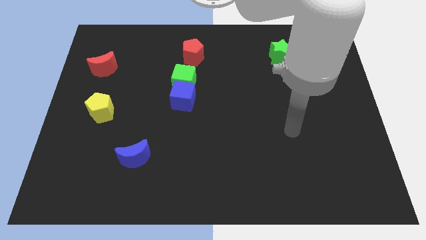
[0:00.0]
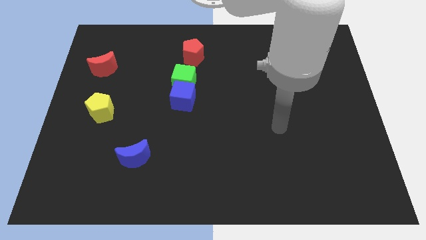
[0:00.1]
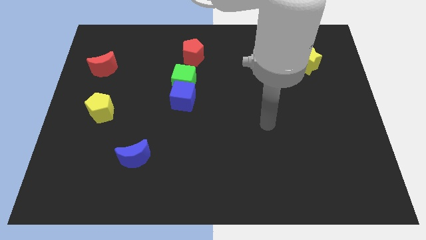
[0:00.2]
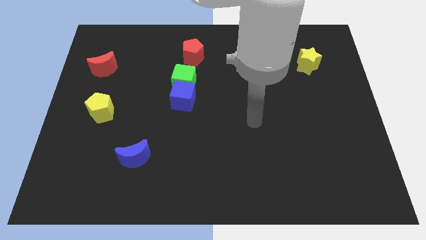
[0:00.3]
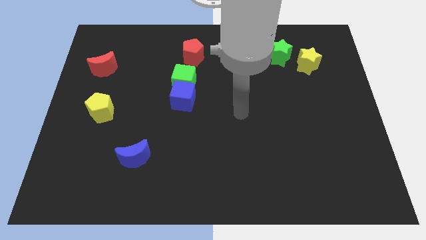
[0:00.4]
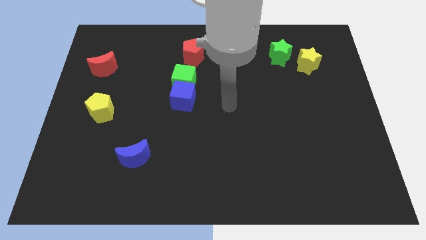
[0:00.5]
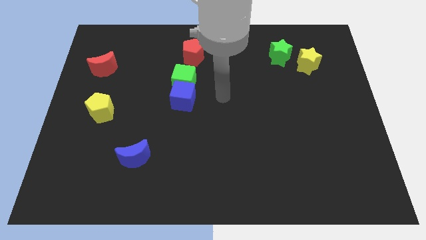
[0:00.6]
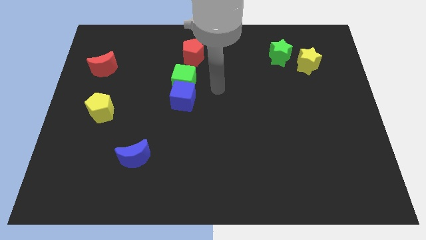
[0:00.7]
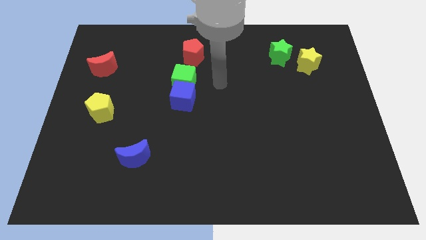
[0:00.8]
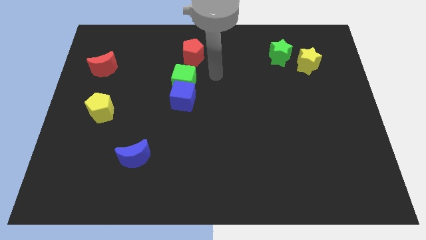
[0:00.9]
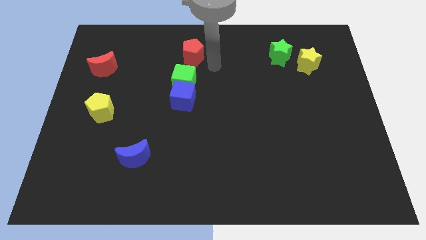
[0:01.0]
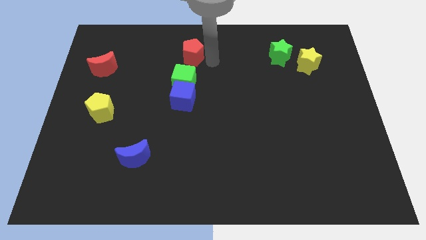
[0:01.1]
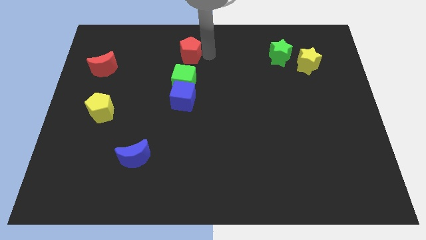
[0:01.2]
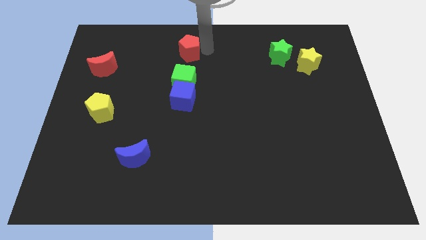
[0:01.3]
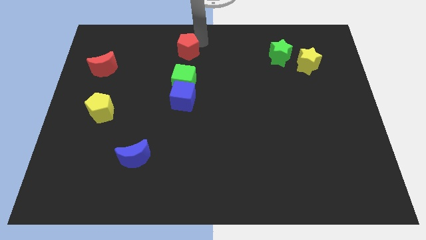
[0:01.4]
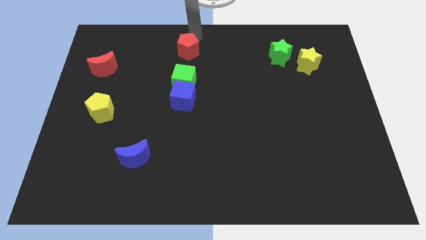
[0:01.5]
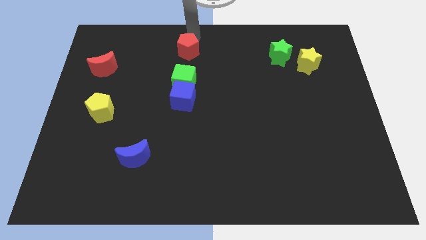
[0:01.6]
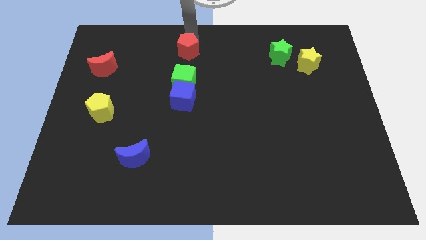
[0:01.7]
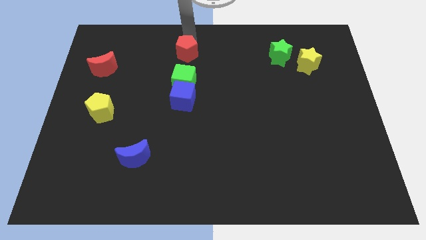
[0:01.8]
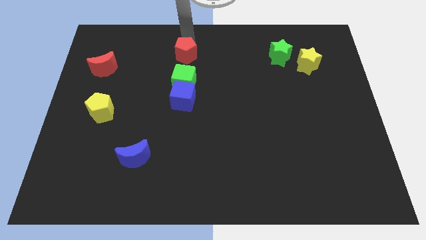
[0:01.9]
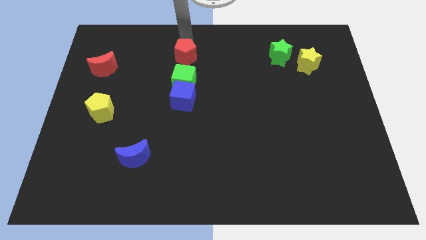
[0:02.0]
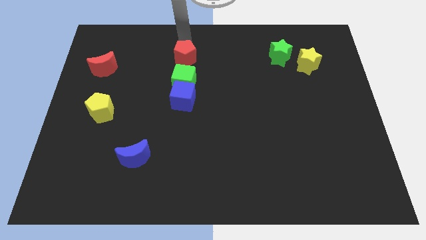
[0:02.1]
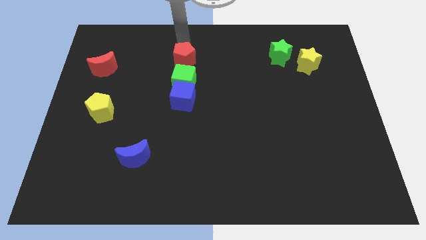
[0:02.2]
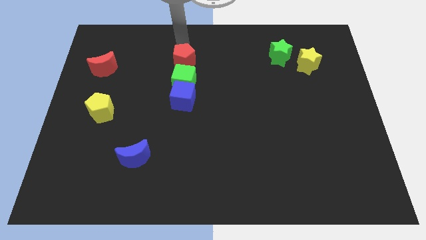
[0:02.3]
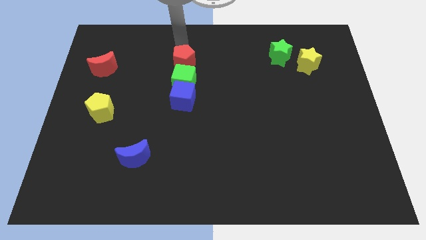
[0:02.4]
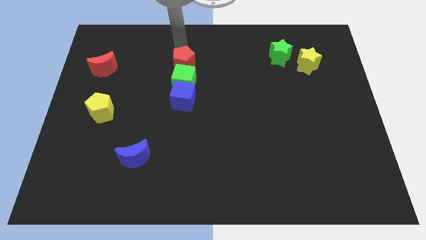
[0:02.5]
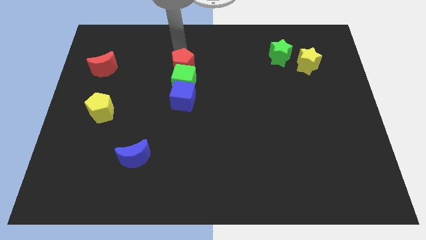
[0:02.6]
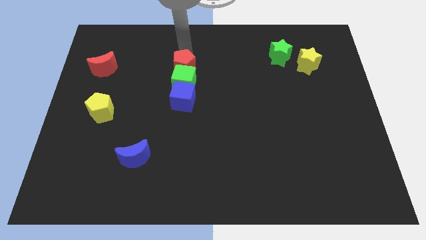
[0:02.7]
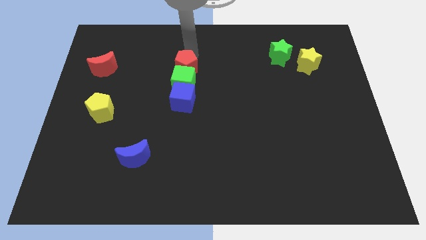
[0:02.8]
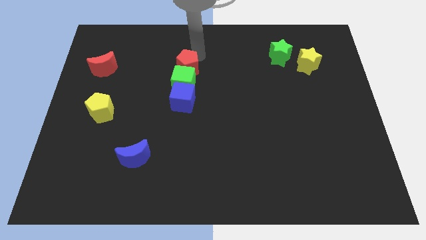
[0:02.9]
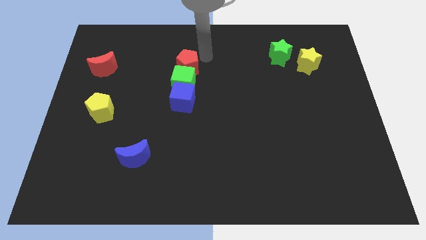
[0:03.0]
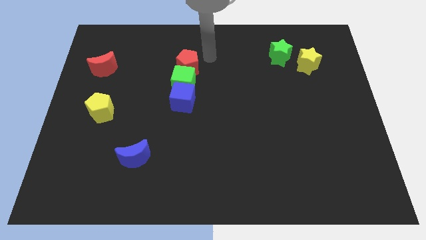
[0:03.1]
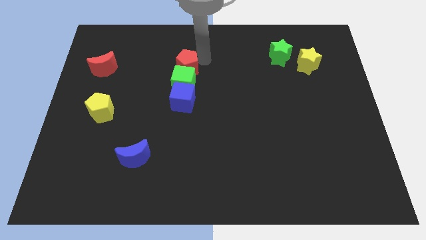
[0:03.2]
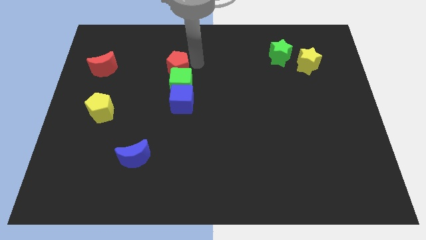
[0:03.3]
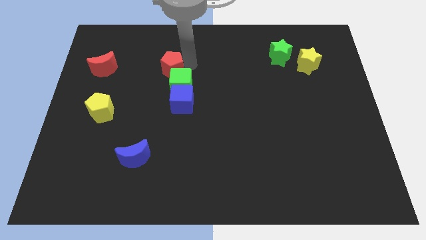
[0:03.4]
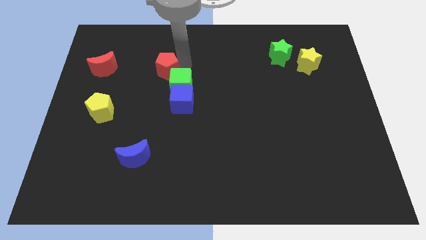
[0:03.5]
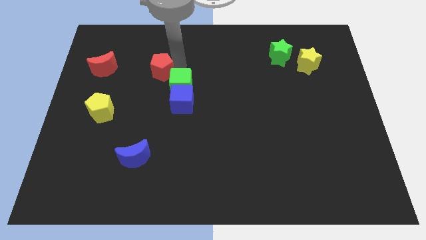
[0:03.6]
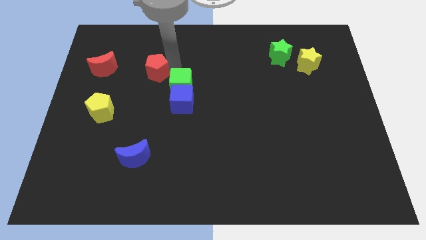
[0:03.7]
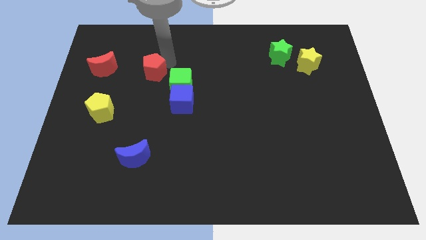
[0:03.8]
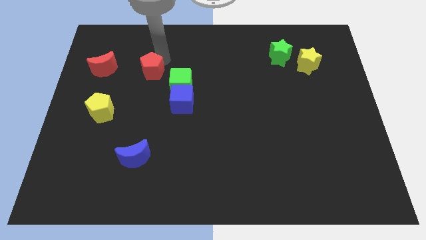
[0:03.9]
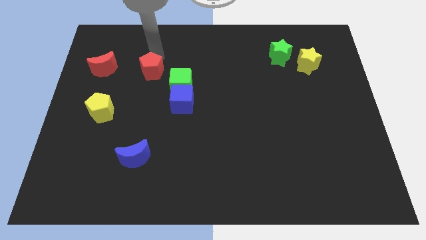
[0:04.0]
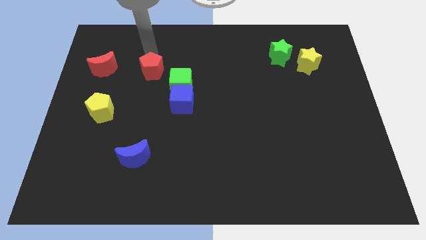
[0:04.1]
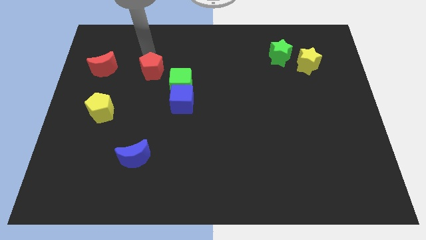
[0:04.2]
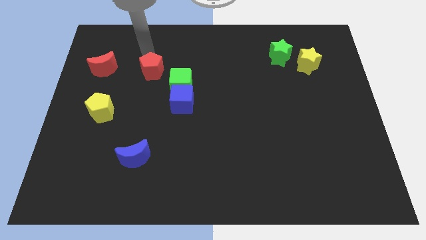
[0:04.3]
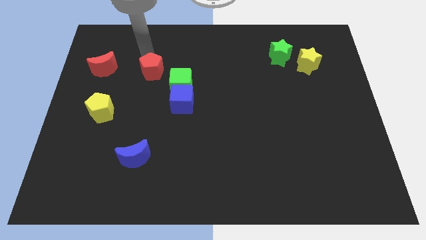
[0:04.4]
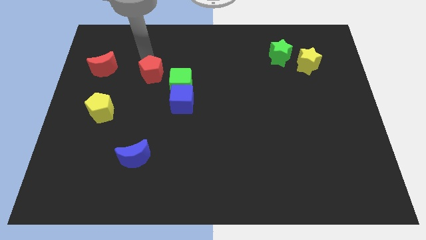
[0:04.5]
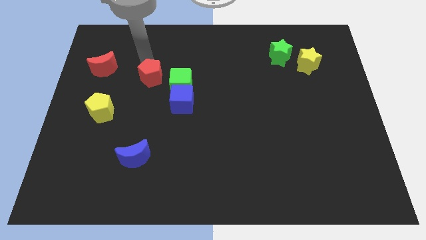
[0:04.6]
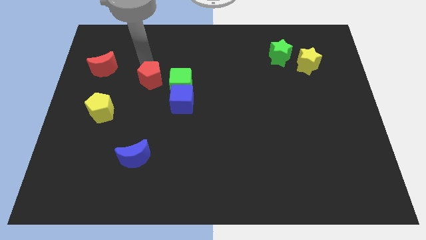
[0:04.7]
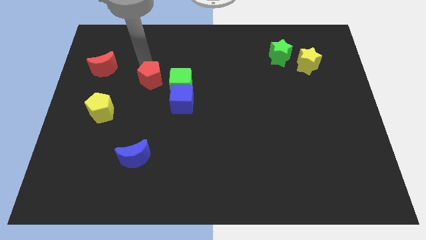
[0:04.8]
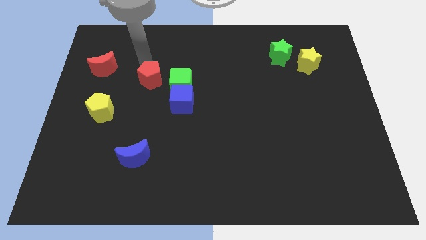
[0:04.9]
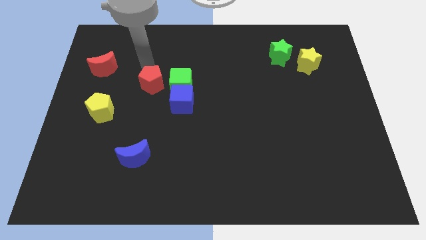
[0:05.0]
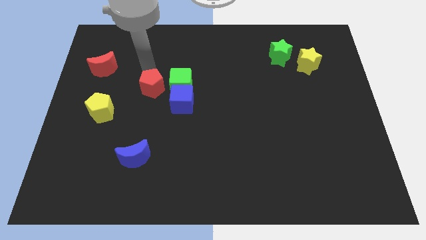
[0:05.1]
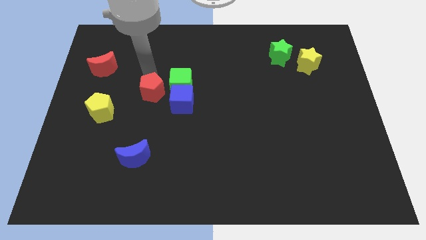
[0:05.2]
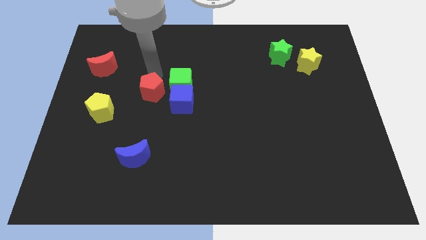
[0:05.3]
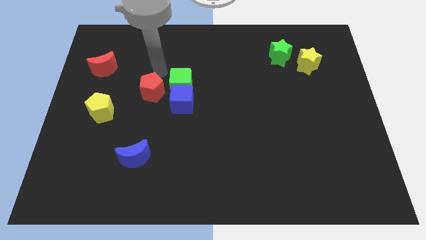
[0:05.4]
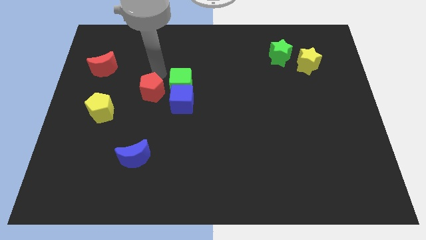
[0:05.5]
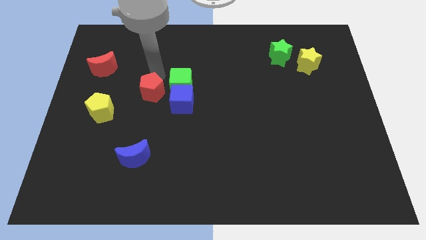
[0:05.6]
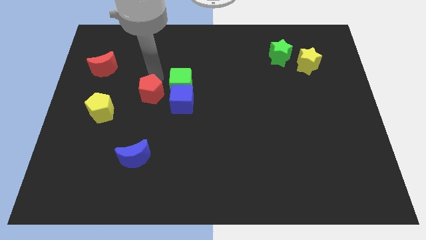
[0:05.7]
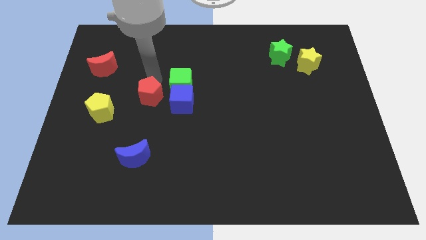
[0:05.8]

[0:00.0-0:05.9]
slide the red pentagon just right of the yellow pentagon

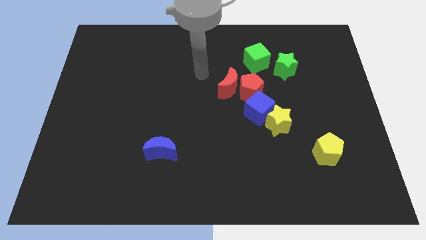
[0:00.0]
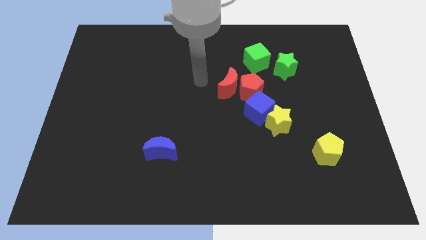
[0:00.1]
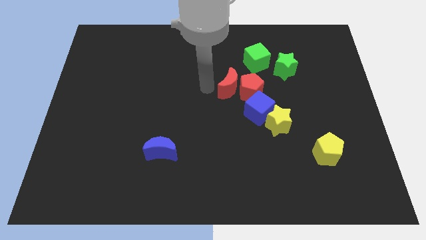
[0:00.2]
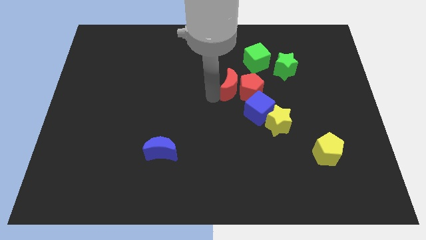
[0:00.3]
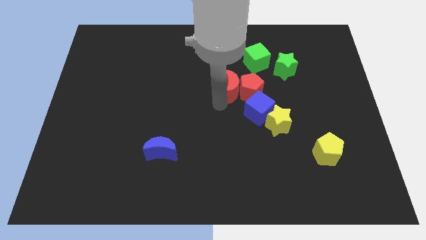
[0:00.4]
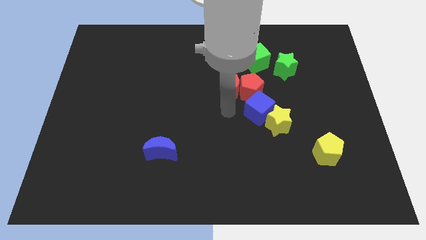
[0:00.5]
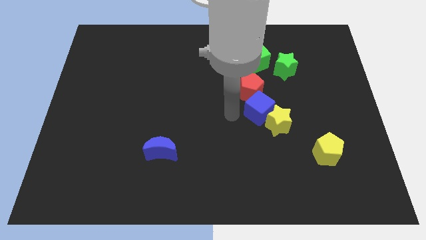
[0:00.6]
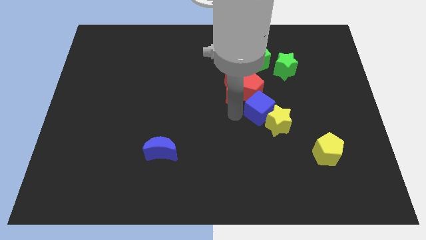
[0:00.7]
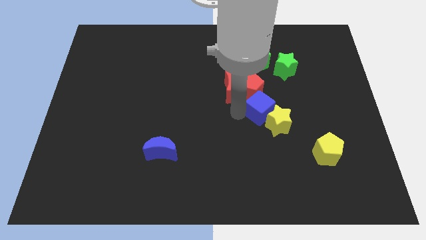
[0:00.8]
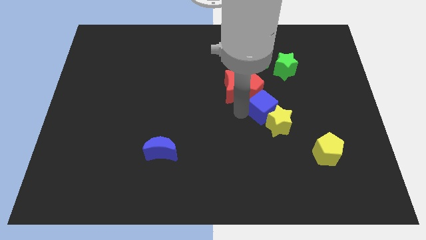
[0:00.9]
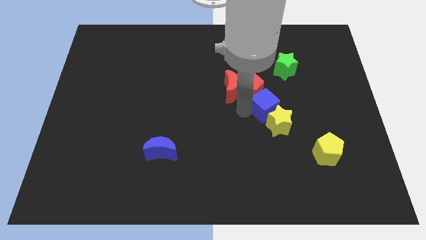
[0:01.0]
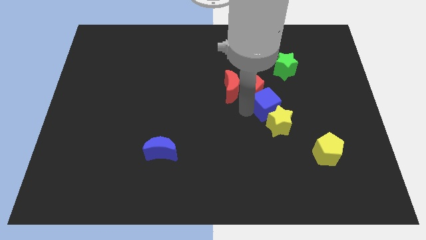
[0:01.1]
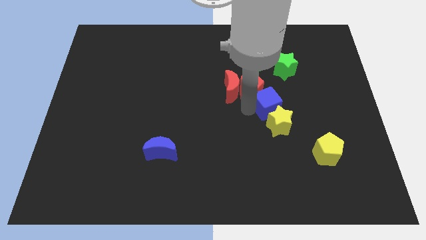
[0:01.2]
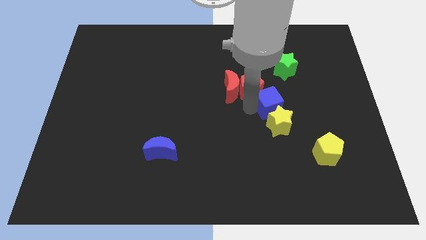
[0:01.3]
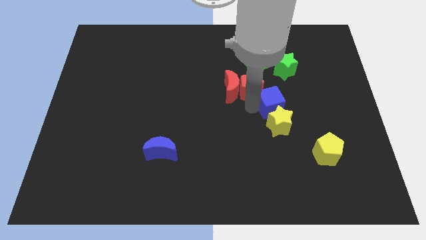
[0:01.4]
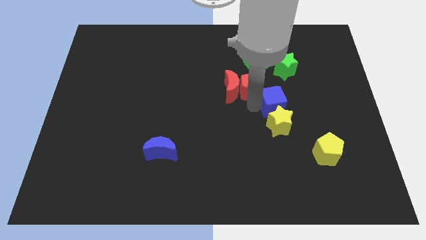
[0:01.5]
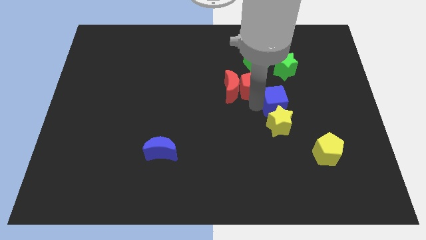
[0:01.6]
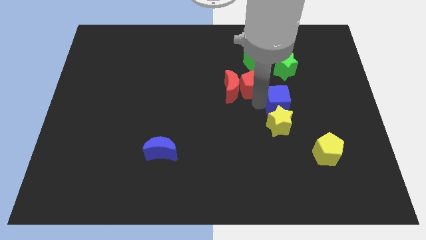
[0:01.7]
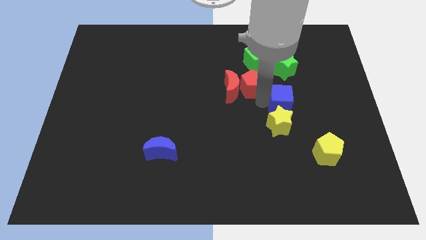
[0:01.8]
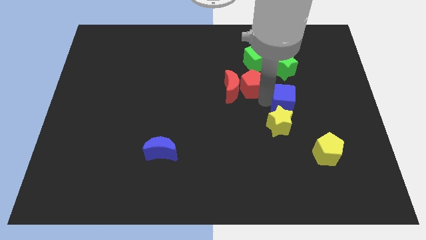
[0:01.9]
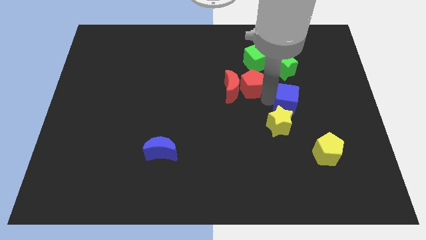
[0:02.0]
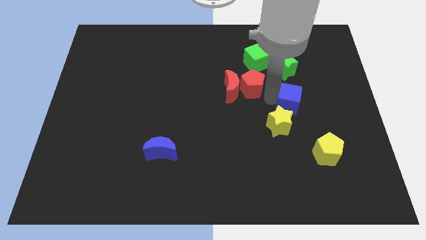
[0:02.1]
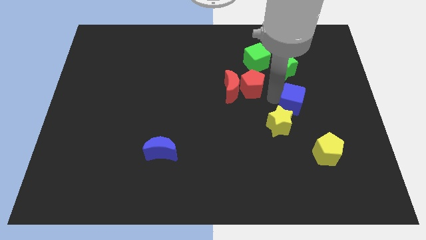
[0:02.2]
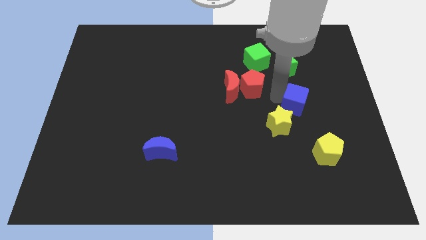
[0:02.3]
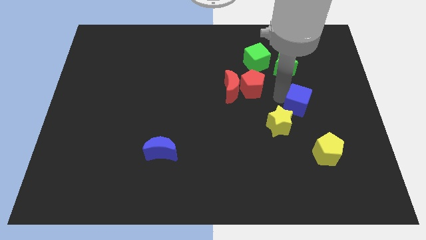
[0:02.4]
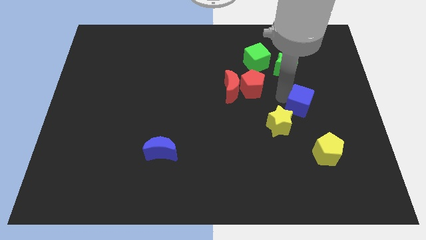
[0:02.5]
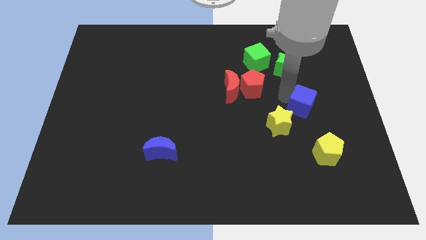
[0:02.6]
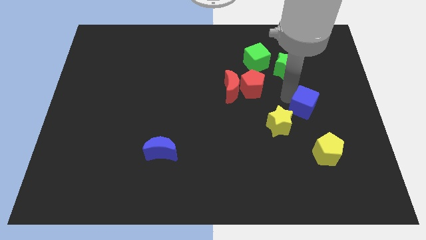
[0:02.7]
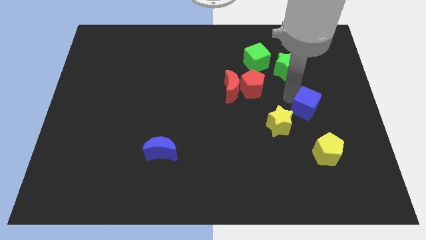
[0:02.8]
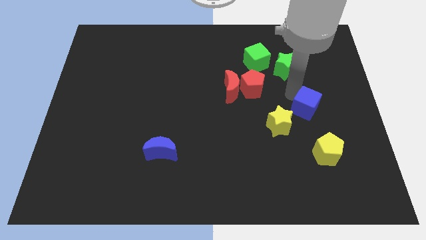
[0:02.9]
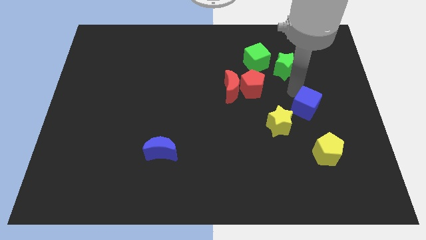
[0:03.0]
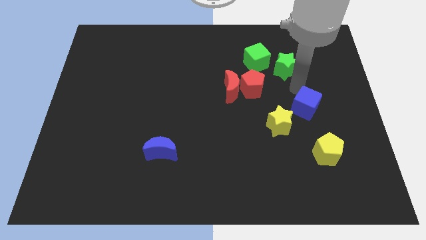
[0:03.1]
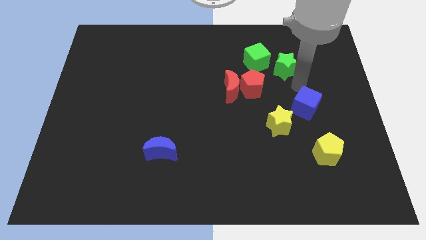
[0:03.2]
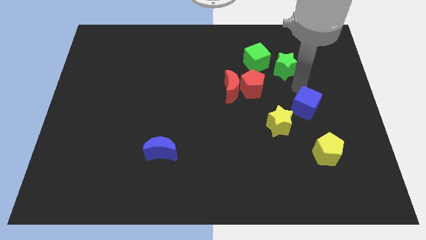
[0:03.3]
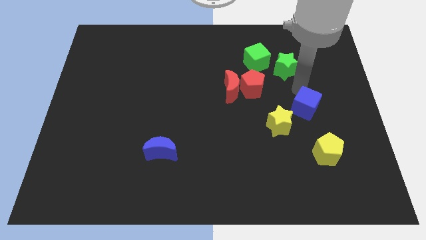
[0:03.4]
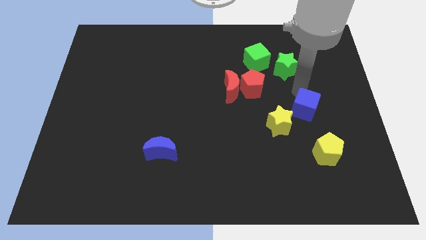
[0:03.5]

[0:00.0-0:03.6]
slide the blue cube just right of the yellow star
